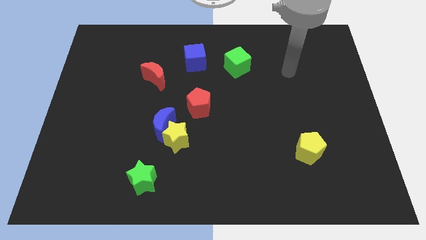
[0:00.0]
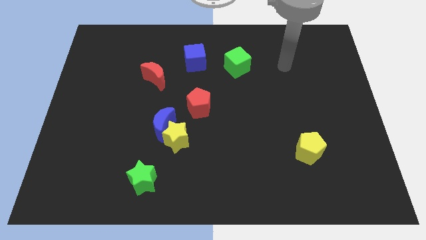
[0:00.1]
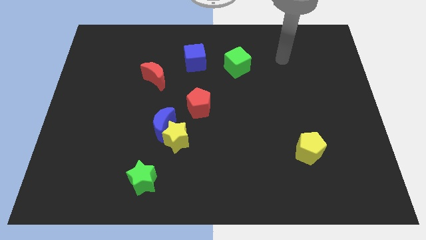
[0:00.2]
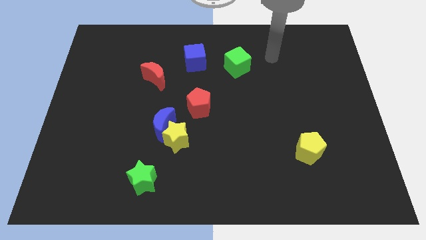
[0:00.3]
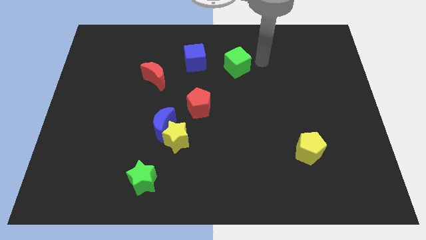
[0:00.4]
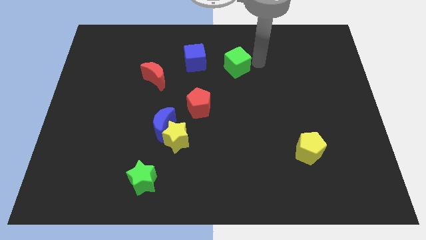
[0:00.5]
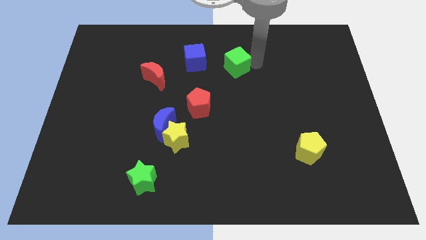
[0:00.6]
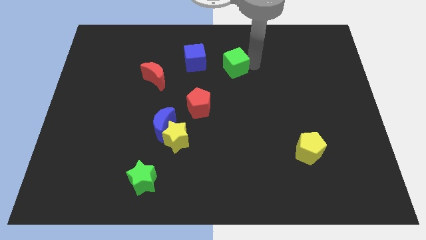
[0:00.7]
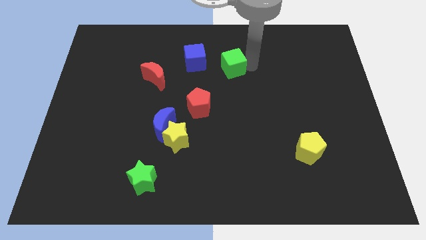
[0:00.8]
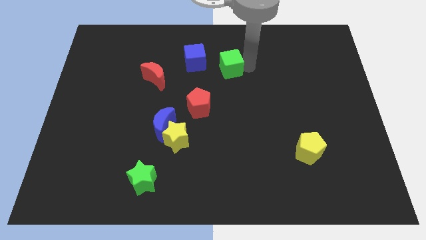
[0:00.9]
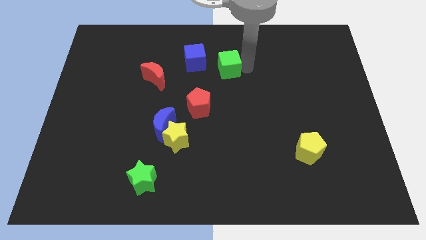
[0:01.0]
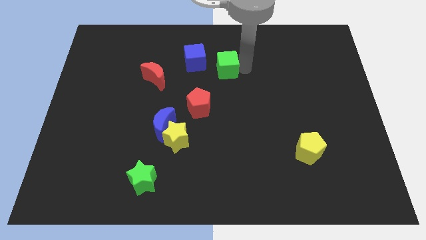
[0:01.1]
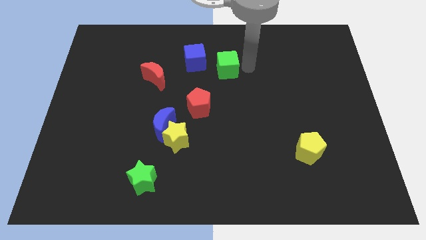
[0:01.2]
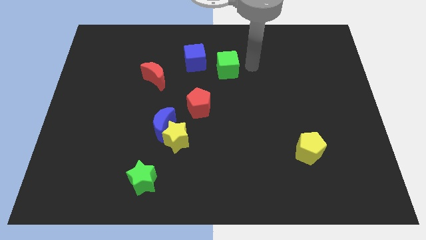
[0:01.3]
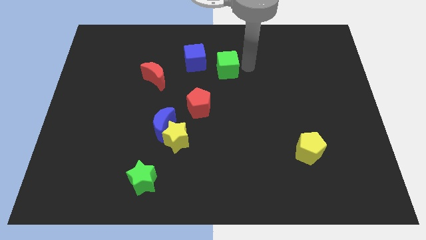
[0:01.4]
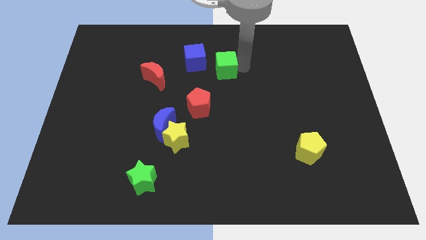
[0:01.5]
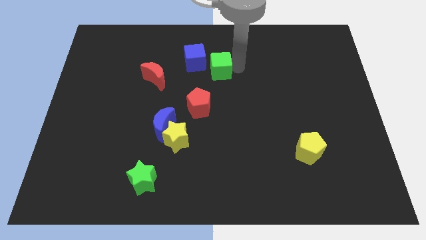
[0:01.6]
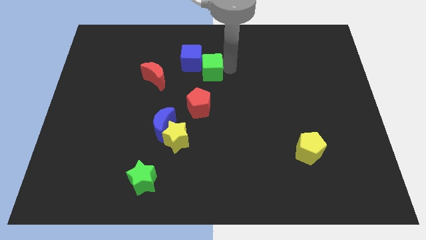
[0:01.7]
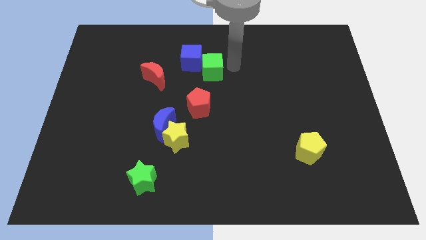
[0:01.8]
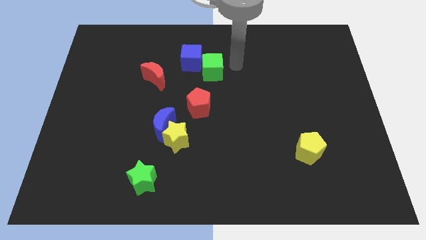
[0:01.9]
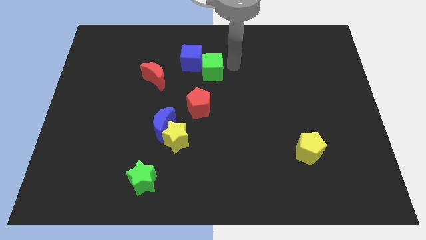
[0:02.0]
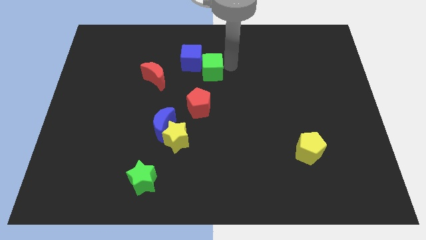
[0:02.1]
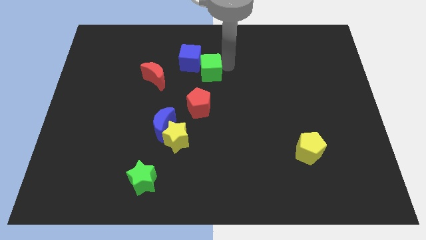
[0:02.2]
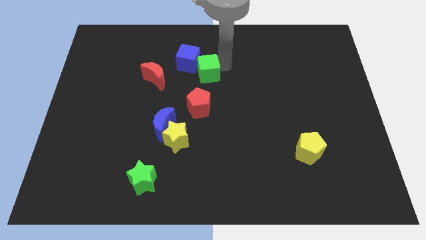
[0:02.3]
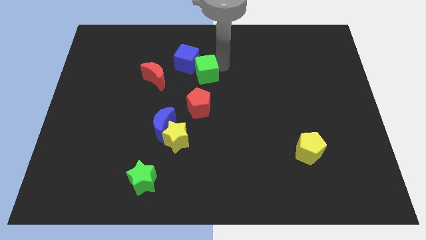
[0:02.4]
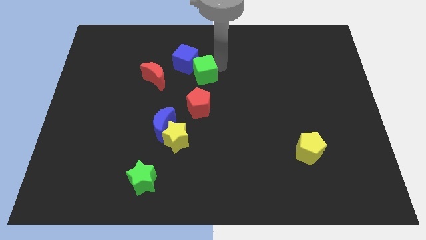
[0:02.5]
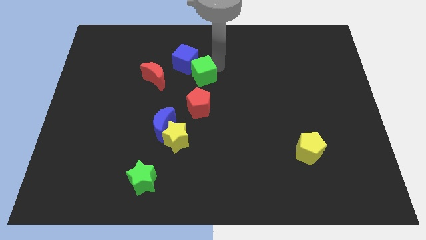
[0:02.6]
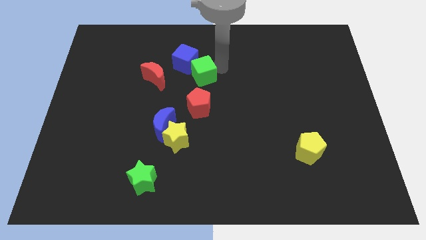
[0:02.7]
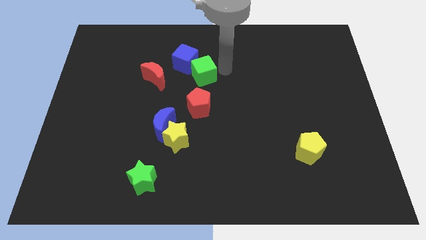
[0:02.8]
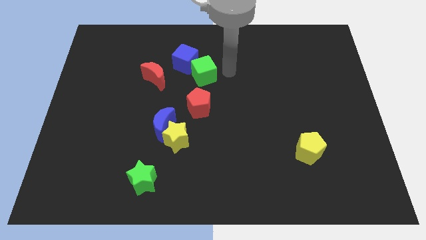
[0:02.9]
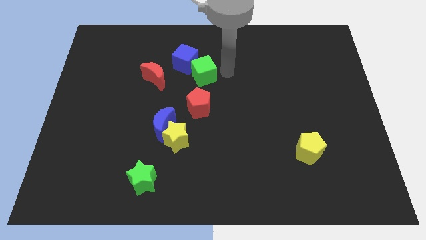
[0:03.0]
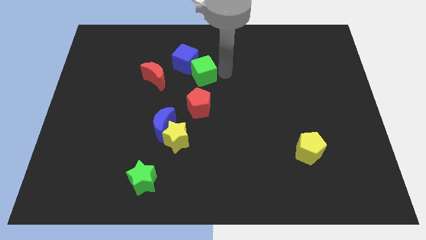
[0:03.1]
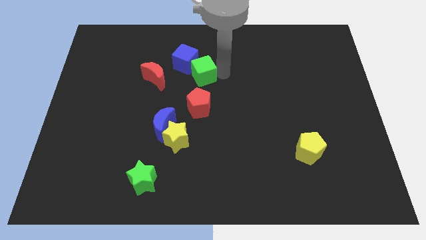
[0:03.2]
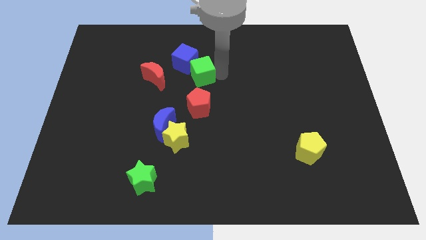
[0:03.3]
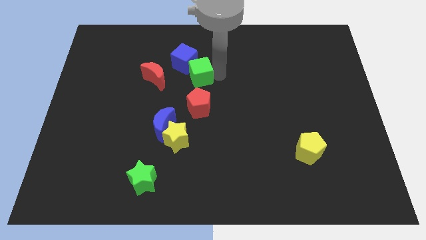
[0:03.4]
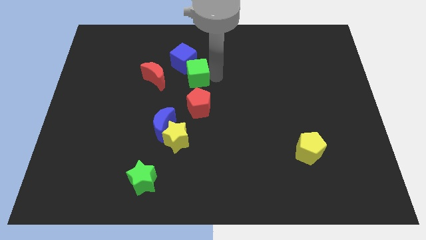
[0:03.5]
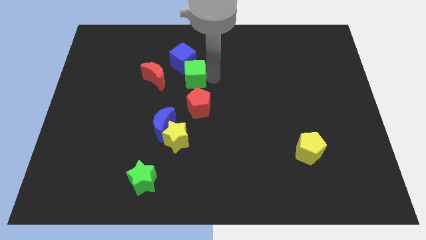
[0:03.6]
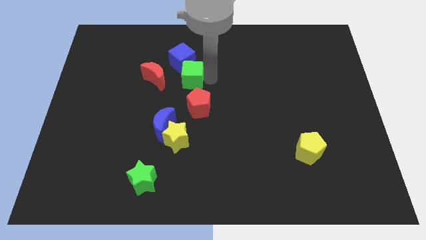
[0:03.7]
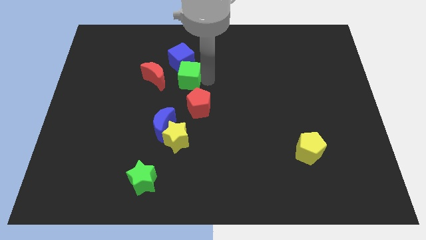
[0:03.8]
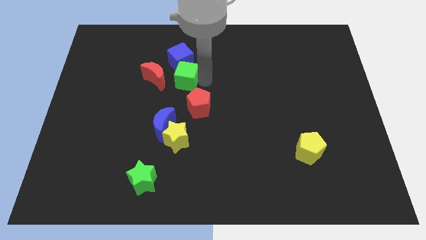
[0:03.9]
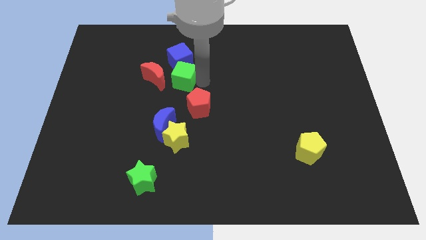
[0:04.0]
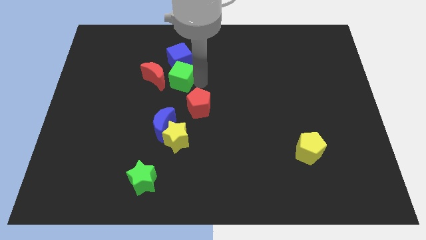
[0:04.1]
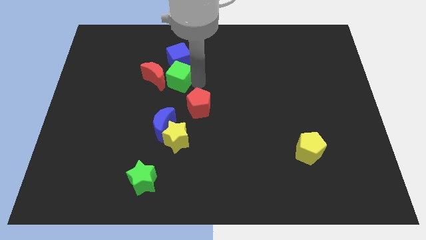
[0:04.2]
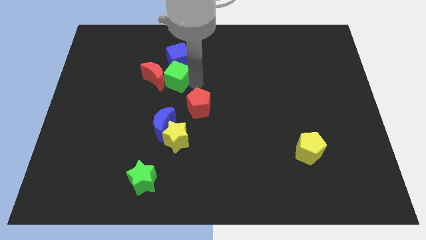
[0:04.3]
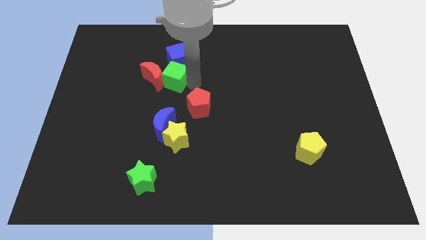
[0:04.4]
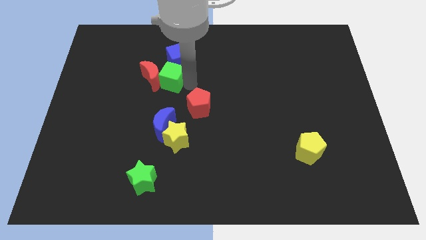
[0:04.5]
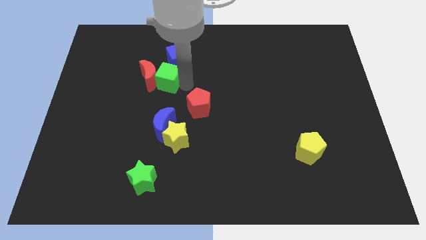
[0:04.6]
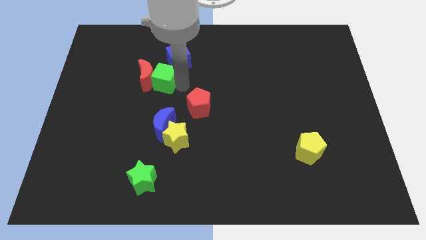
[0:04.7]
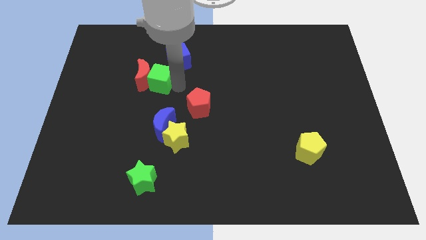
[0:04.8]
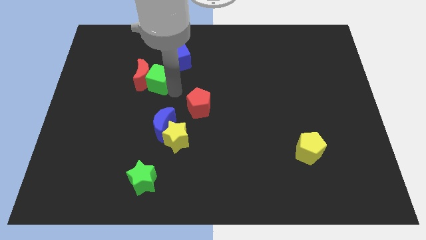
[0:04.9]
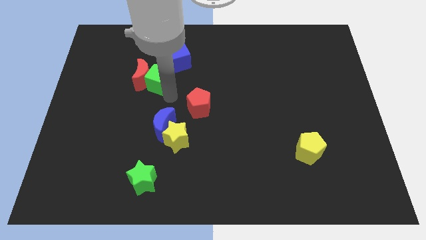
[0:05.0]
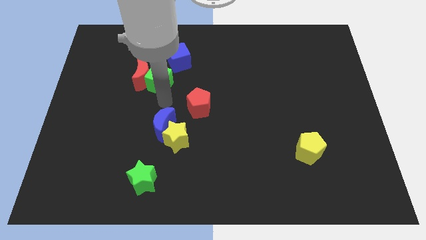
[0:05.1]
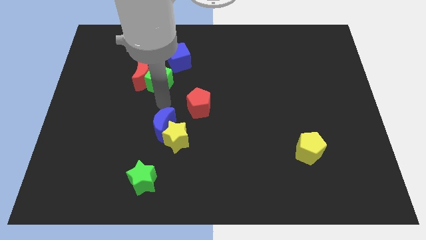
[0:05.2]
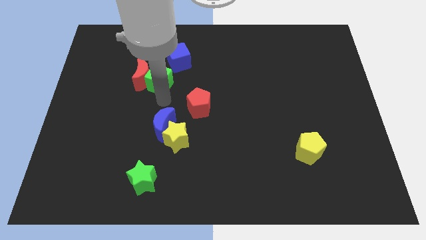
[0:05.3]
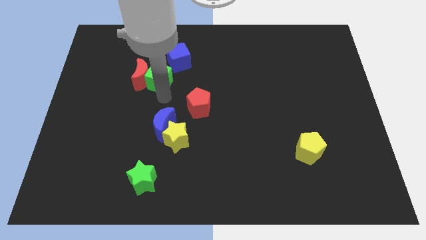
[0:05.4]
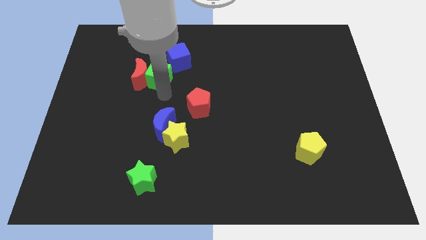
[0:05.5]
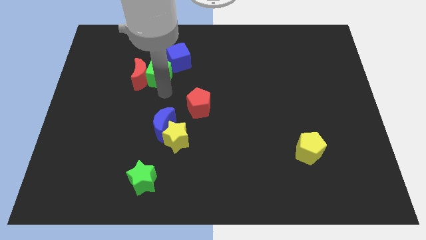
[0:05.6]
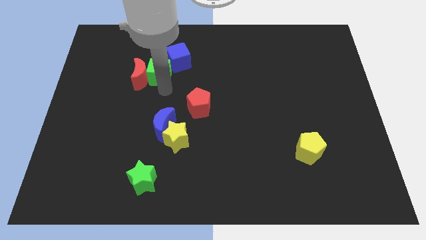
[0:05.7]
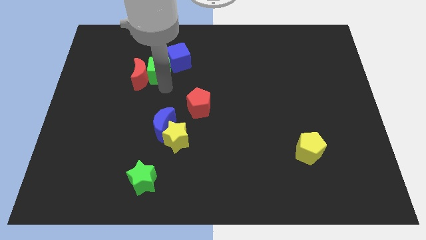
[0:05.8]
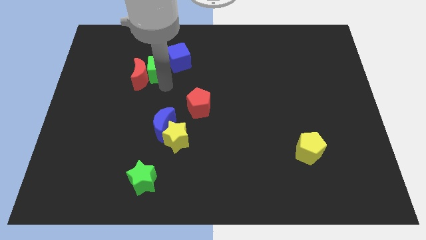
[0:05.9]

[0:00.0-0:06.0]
slide the green cube to the left

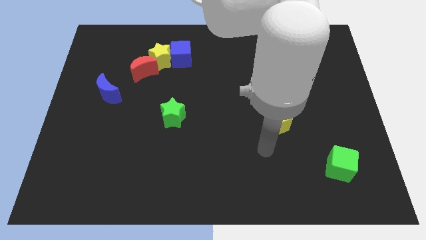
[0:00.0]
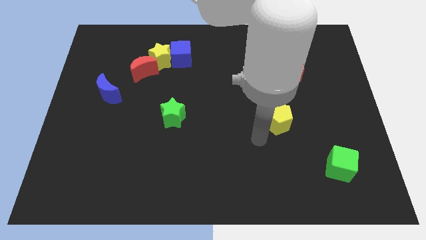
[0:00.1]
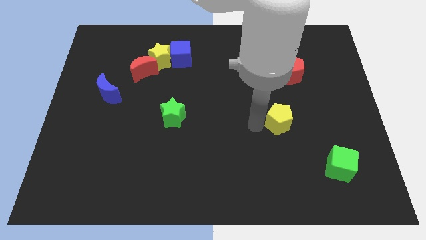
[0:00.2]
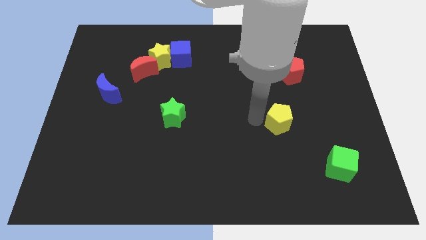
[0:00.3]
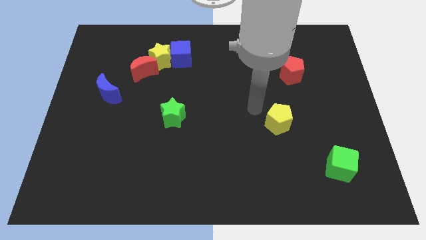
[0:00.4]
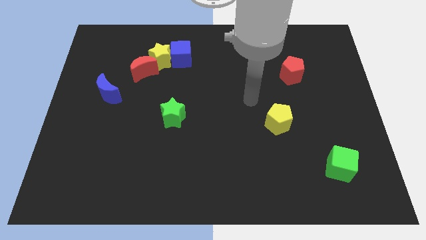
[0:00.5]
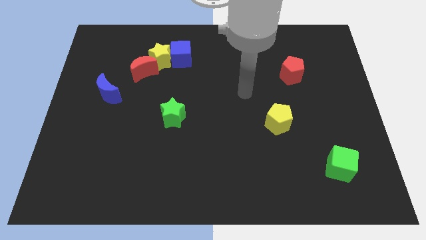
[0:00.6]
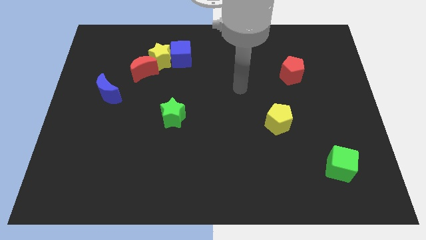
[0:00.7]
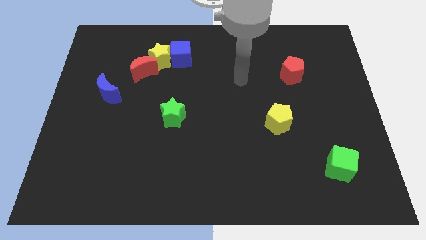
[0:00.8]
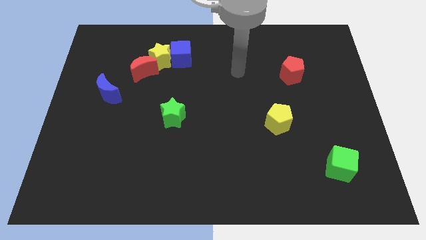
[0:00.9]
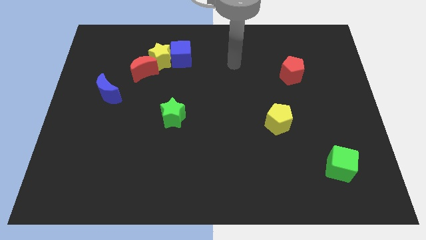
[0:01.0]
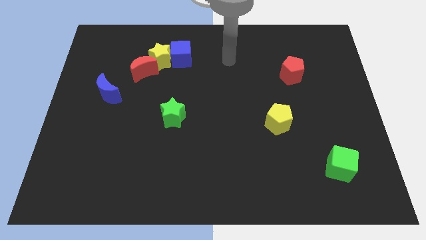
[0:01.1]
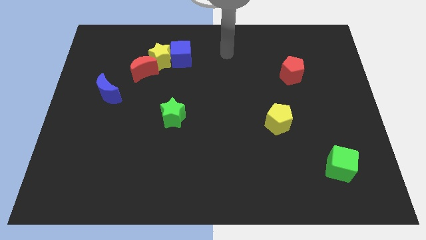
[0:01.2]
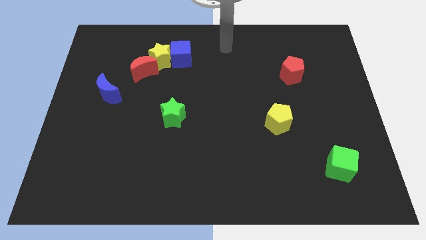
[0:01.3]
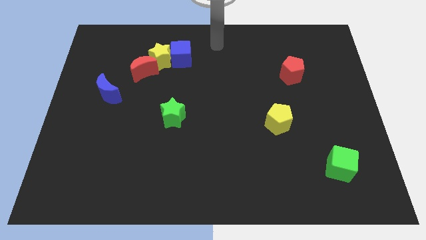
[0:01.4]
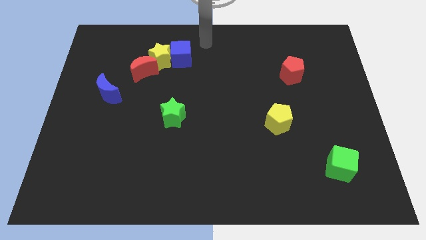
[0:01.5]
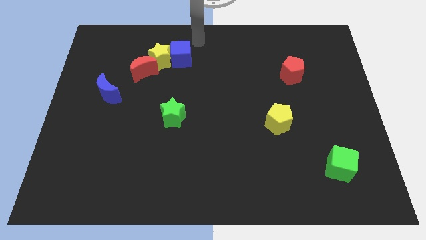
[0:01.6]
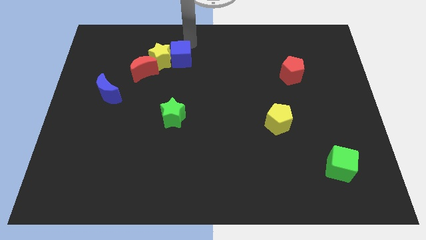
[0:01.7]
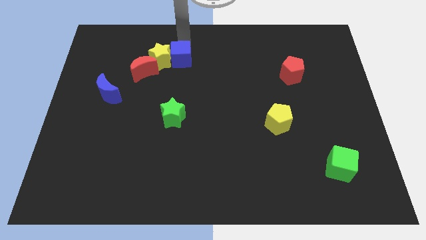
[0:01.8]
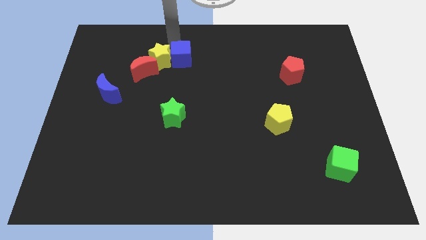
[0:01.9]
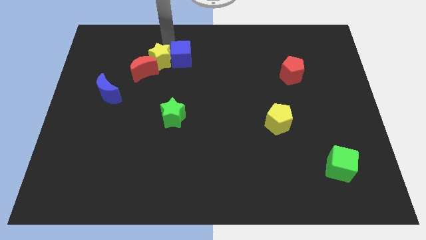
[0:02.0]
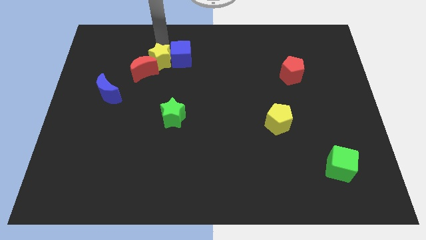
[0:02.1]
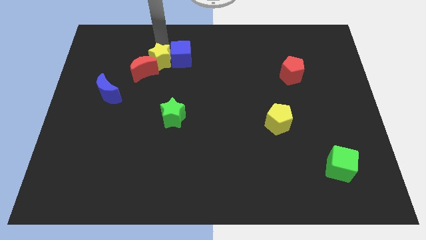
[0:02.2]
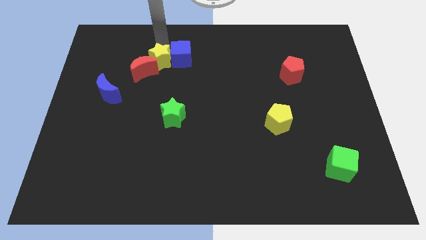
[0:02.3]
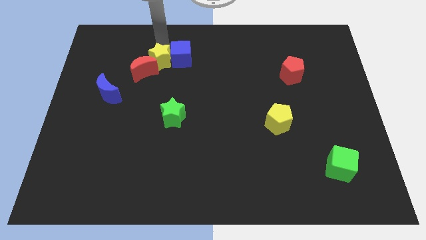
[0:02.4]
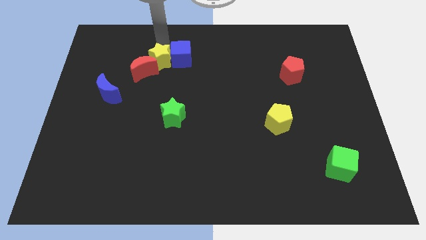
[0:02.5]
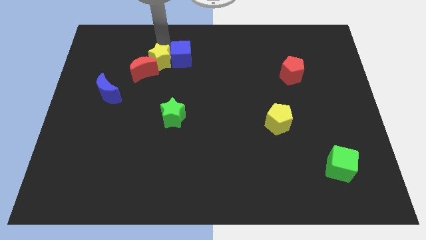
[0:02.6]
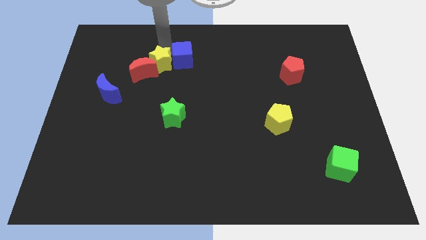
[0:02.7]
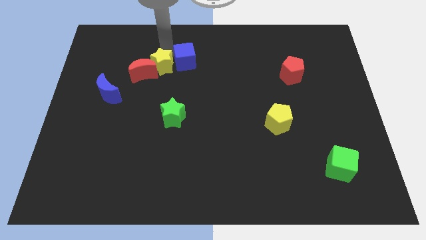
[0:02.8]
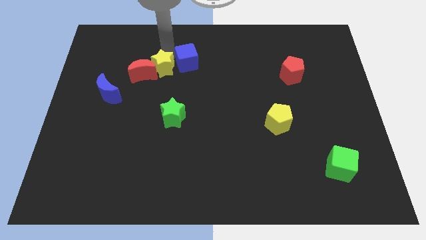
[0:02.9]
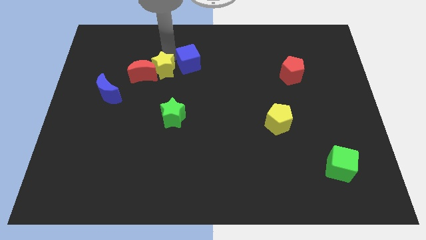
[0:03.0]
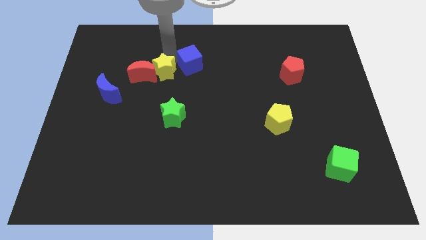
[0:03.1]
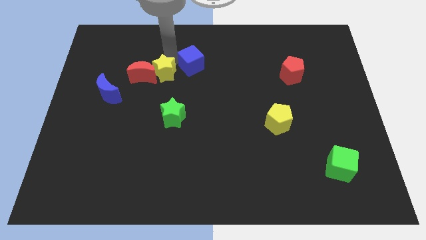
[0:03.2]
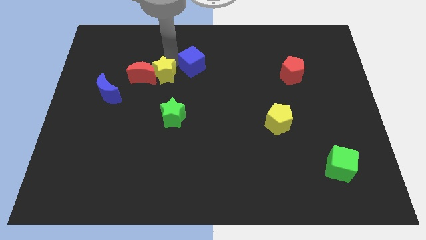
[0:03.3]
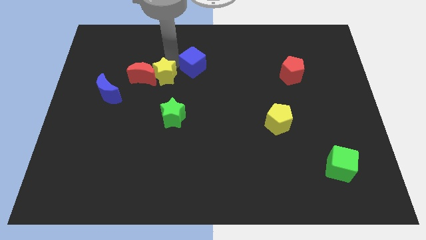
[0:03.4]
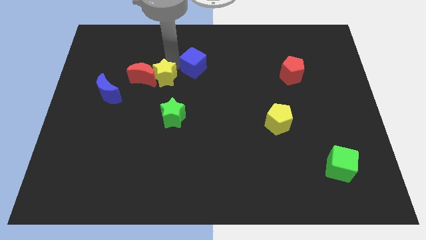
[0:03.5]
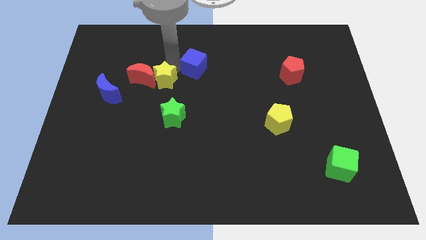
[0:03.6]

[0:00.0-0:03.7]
slightly push the yellow star down
